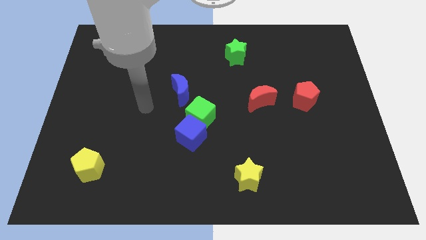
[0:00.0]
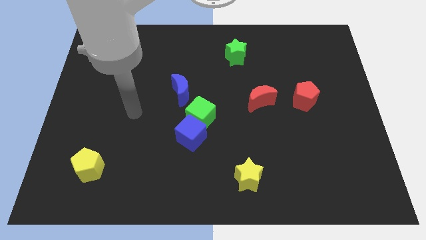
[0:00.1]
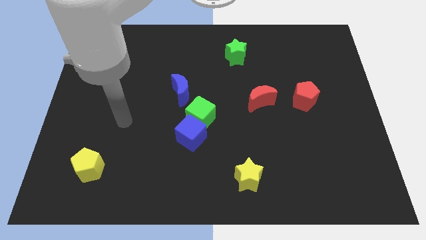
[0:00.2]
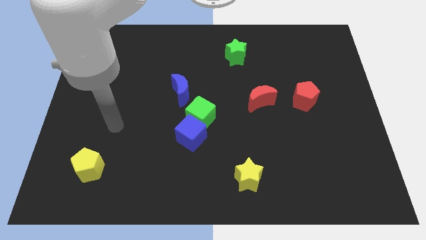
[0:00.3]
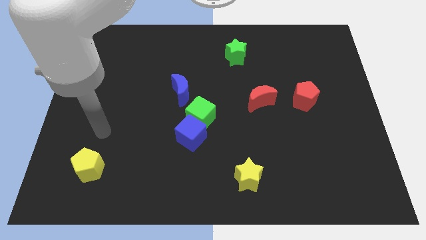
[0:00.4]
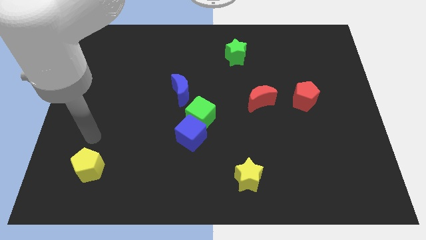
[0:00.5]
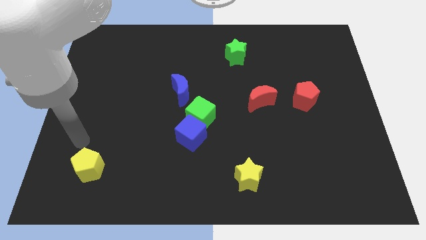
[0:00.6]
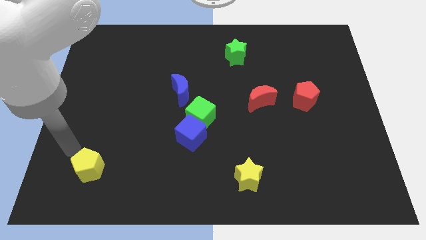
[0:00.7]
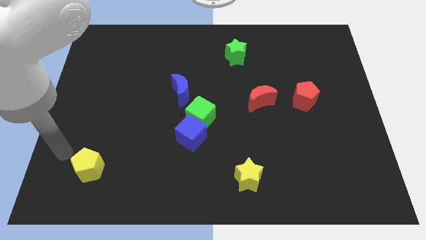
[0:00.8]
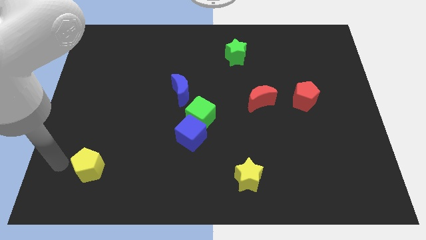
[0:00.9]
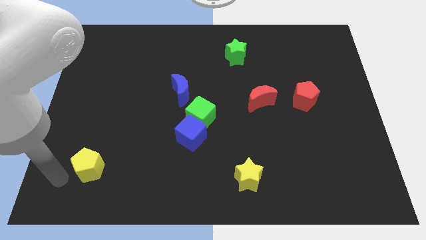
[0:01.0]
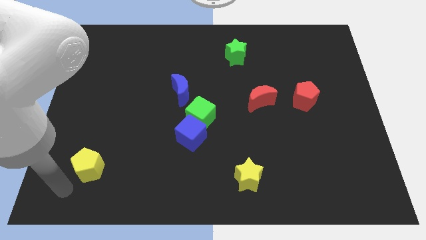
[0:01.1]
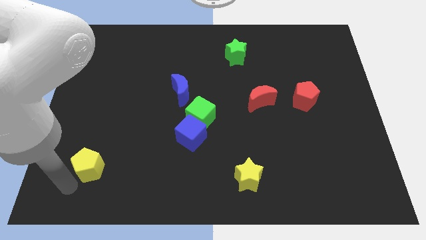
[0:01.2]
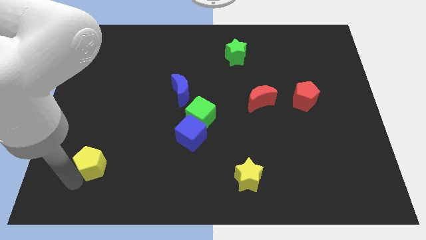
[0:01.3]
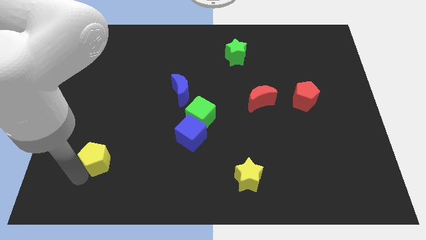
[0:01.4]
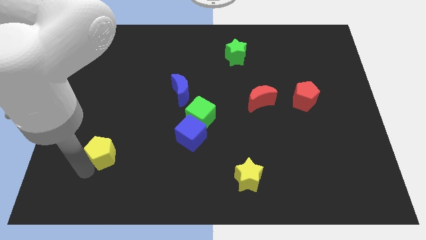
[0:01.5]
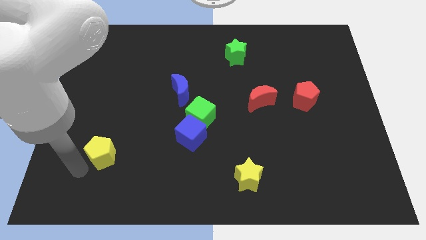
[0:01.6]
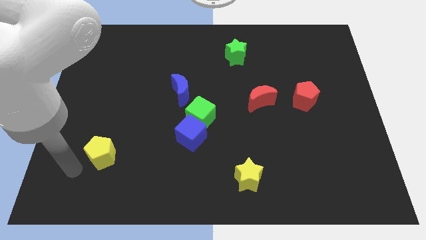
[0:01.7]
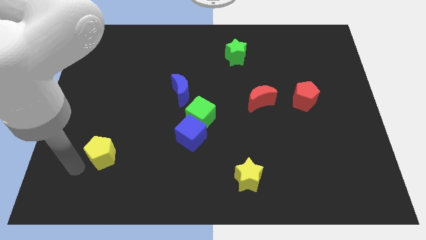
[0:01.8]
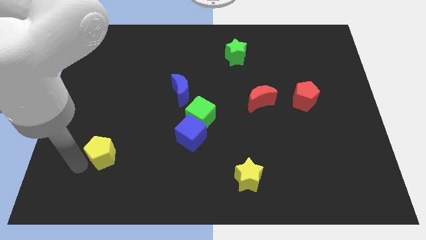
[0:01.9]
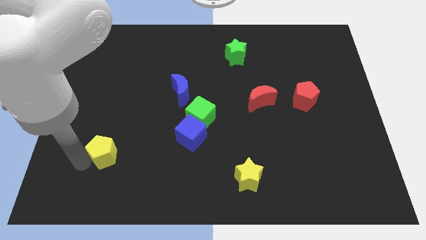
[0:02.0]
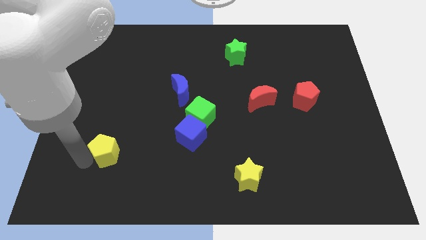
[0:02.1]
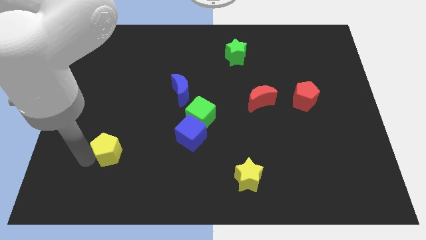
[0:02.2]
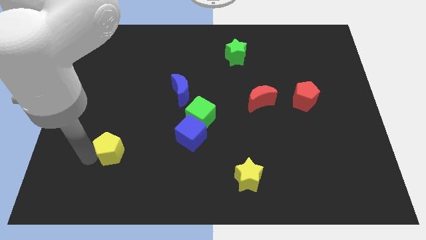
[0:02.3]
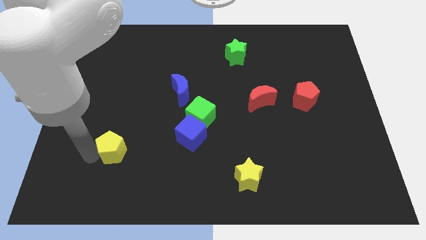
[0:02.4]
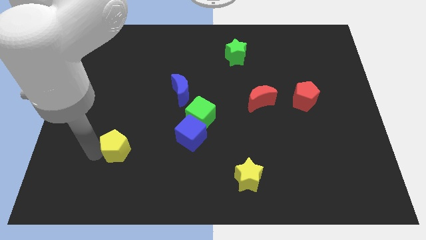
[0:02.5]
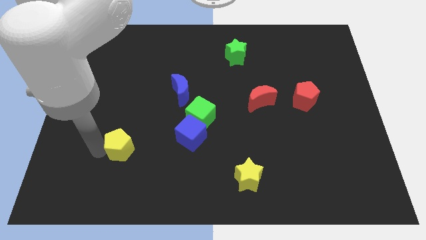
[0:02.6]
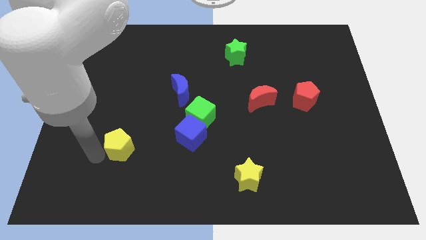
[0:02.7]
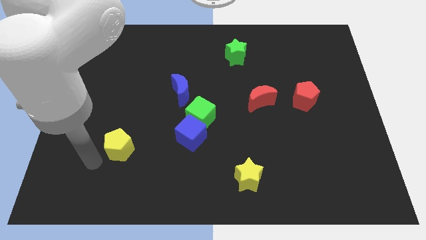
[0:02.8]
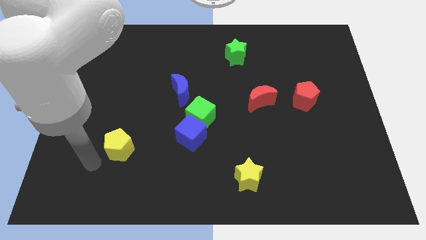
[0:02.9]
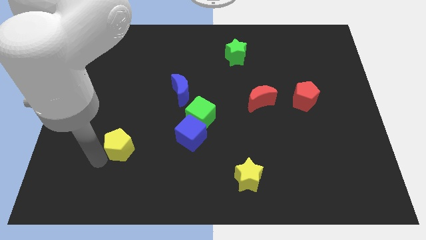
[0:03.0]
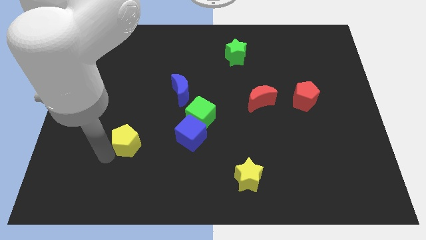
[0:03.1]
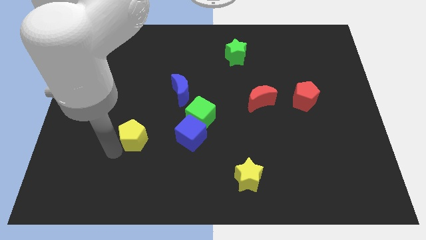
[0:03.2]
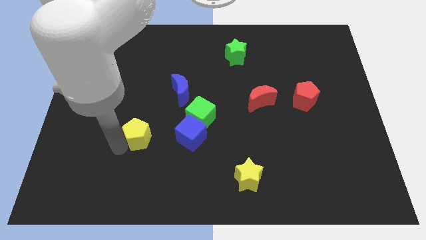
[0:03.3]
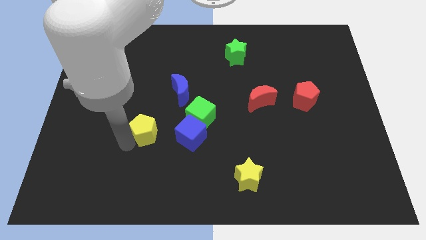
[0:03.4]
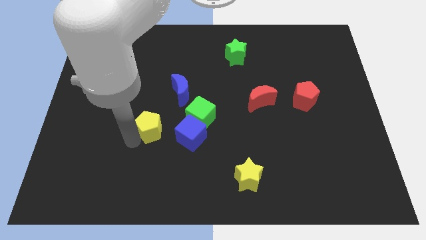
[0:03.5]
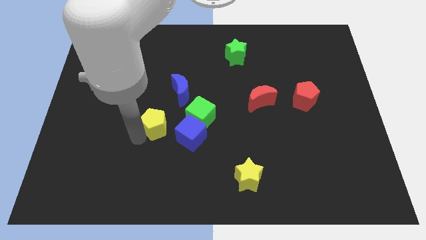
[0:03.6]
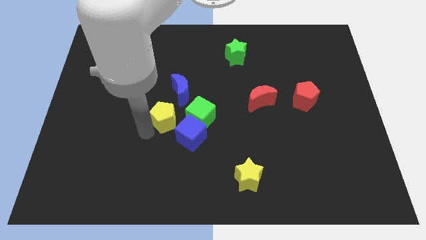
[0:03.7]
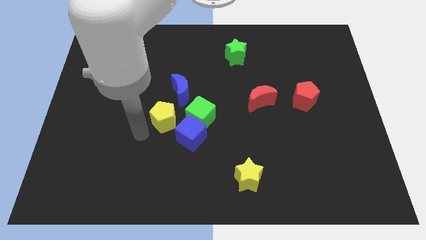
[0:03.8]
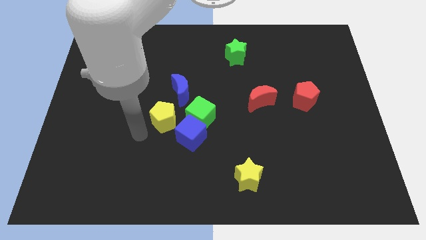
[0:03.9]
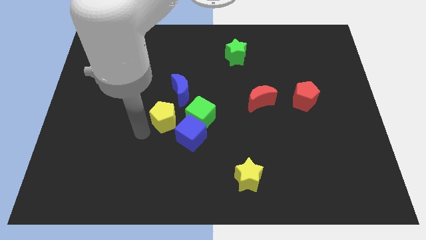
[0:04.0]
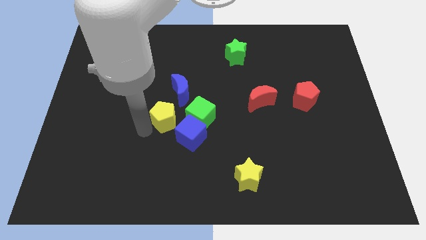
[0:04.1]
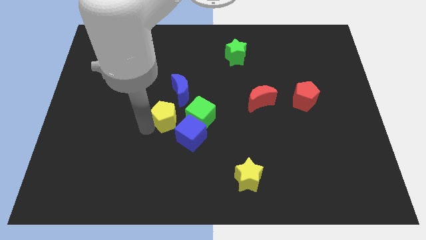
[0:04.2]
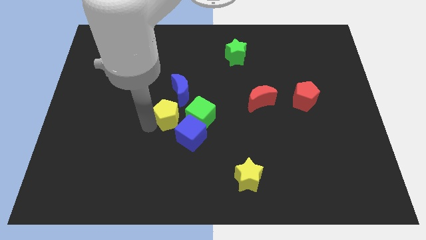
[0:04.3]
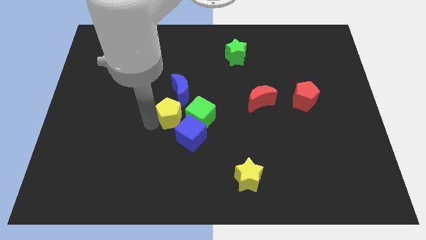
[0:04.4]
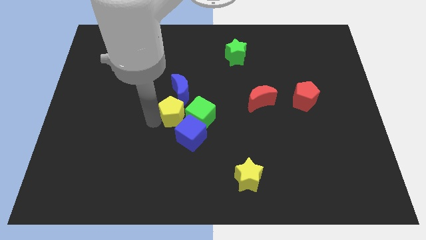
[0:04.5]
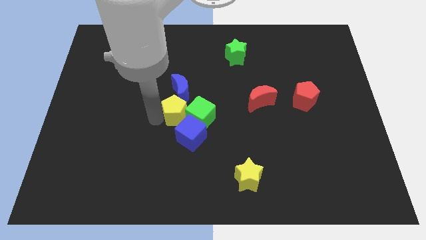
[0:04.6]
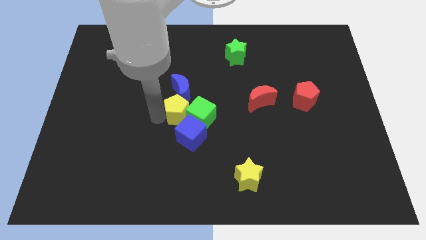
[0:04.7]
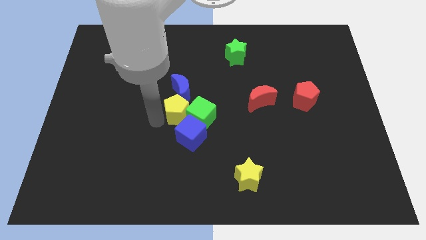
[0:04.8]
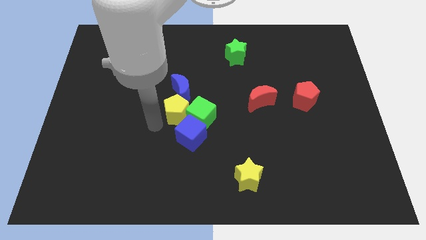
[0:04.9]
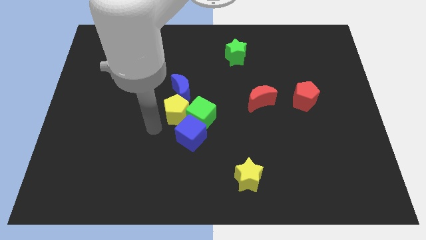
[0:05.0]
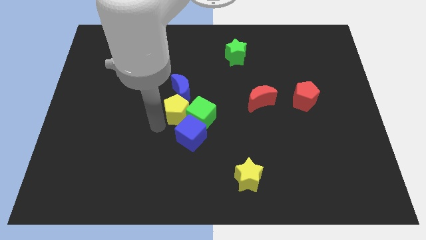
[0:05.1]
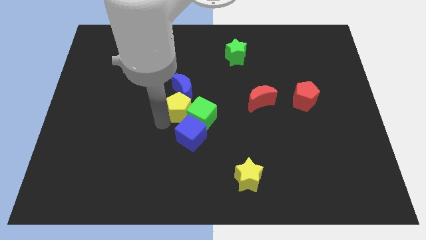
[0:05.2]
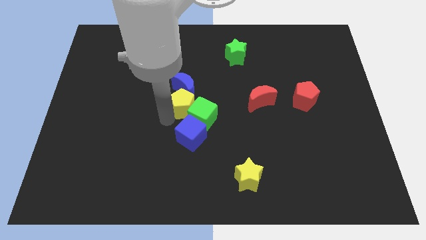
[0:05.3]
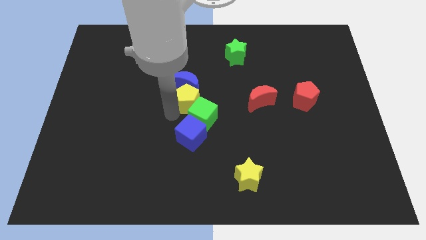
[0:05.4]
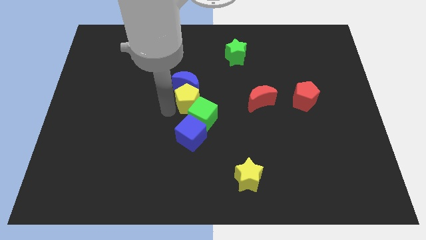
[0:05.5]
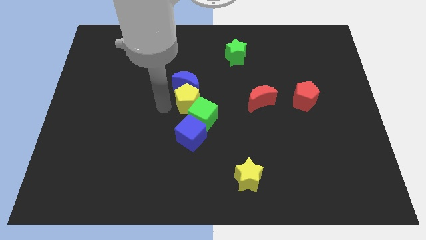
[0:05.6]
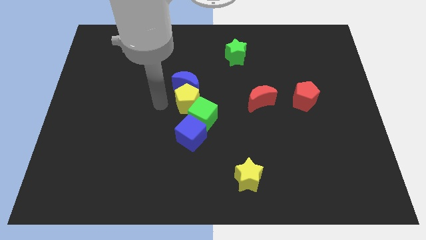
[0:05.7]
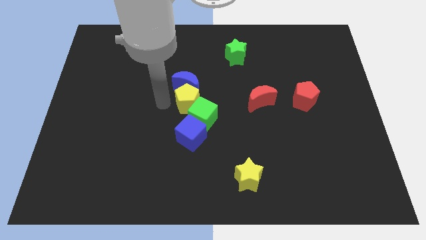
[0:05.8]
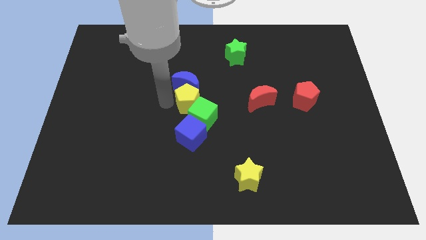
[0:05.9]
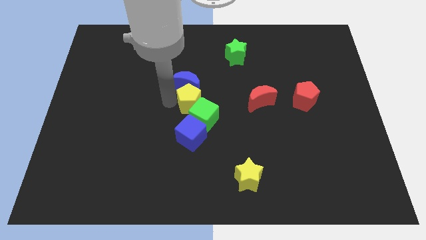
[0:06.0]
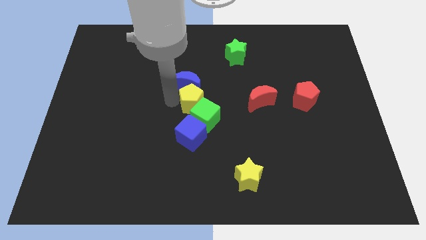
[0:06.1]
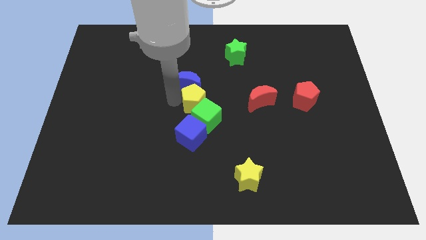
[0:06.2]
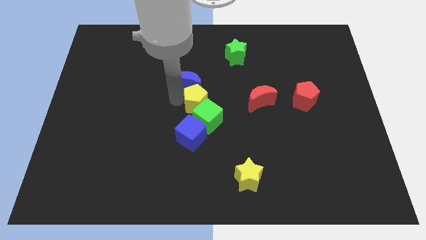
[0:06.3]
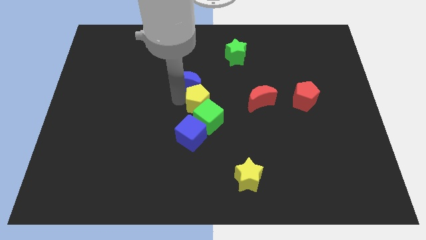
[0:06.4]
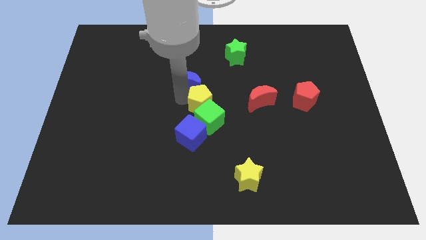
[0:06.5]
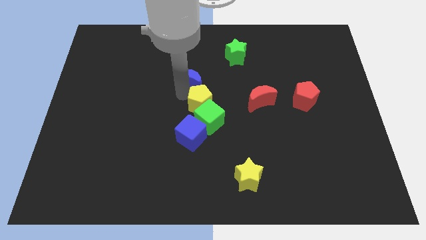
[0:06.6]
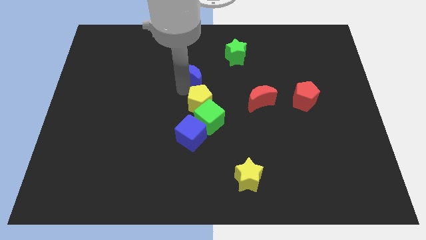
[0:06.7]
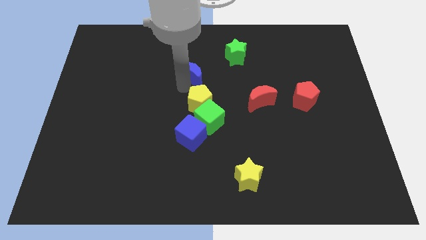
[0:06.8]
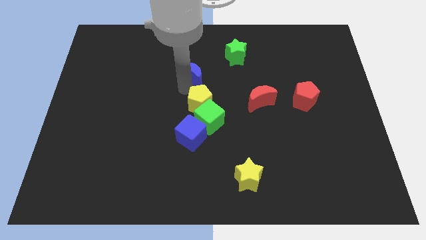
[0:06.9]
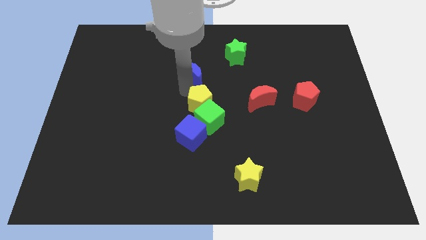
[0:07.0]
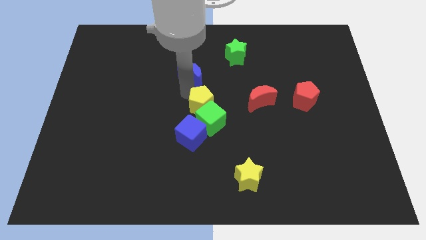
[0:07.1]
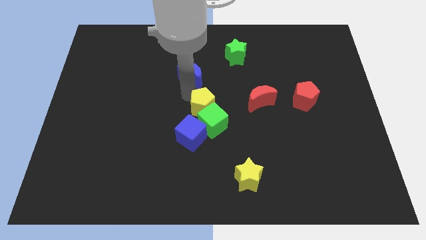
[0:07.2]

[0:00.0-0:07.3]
put the yellow pentagon to the top right side of the blue cube

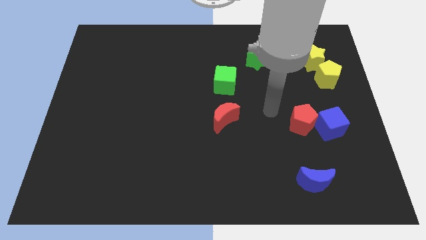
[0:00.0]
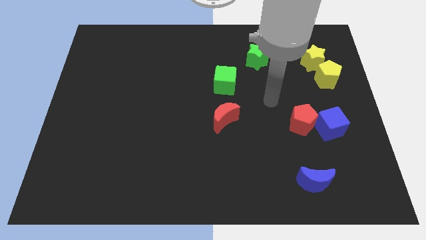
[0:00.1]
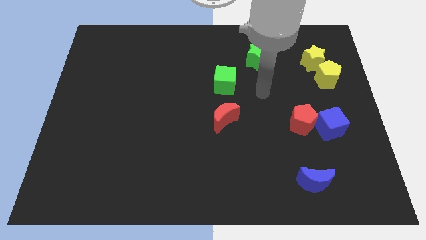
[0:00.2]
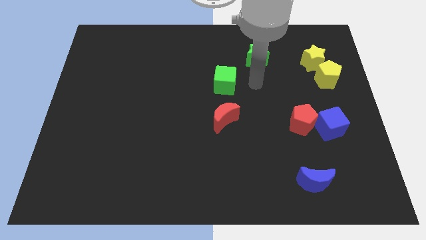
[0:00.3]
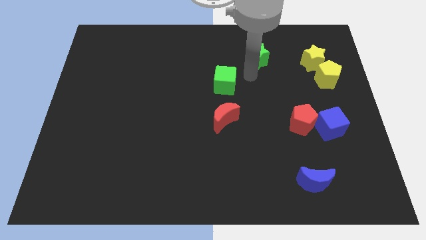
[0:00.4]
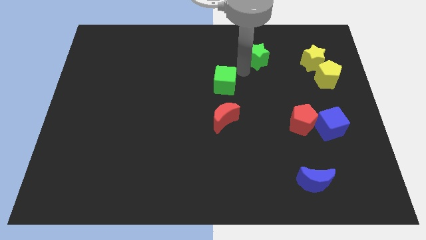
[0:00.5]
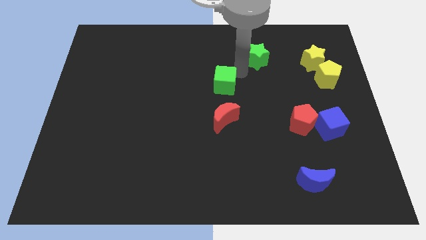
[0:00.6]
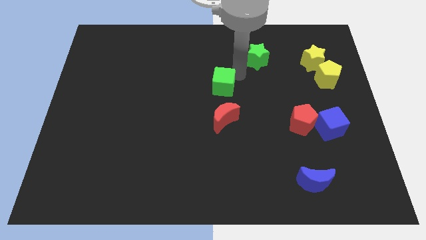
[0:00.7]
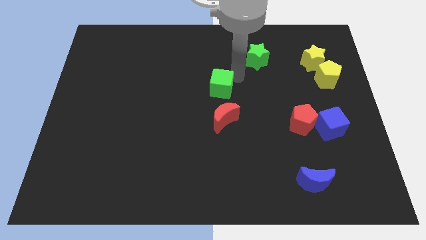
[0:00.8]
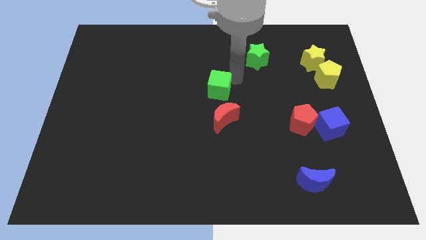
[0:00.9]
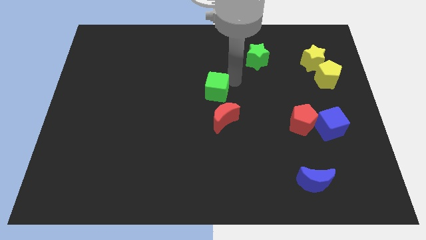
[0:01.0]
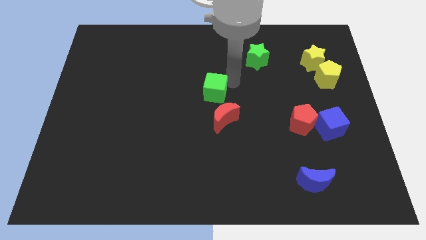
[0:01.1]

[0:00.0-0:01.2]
slide the green cube to the top left side of the red moon
